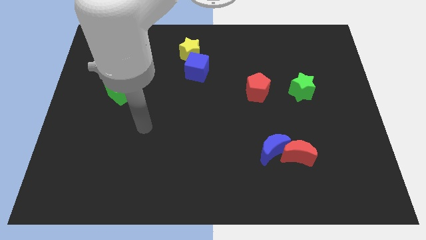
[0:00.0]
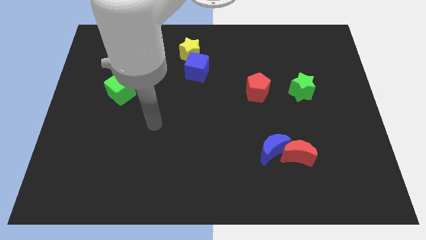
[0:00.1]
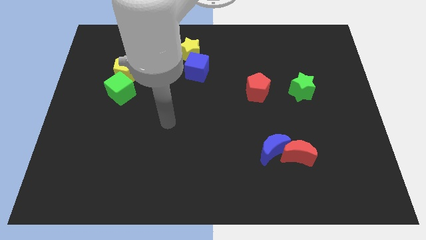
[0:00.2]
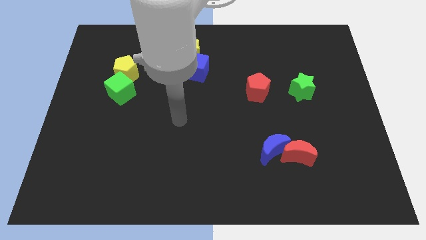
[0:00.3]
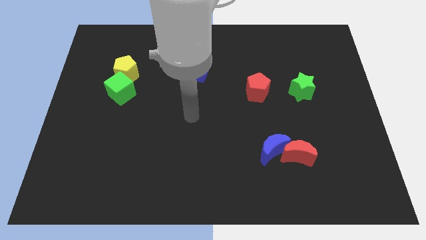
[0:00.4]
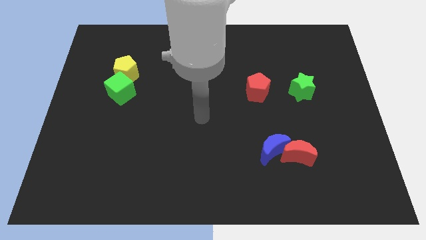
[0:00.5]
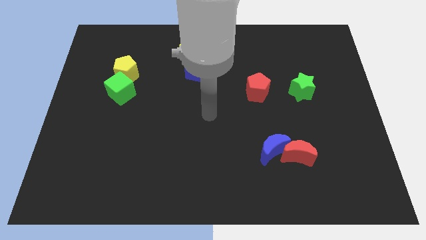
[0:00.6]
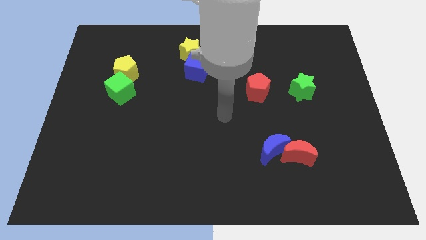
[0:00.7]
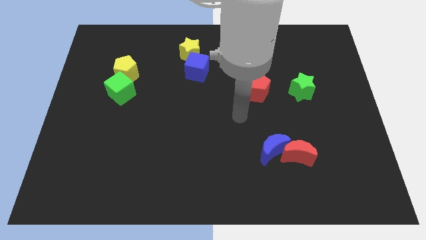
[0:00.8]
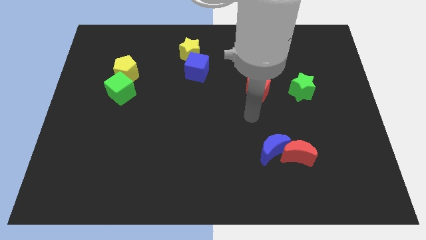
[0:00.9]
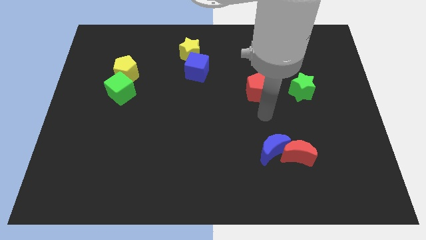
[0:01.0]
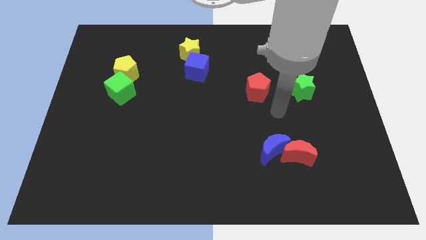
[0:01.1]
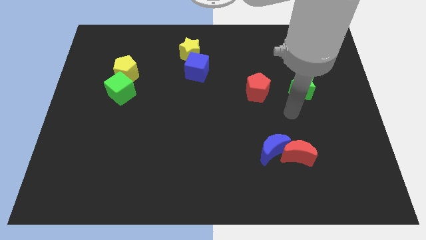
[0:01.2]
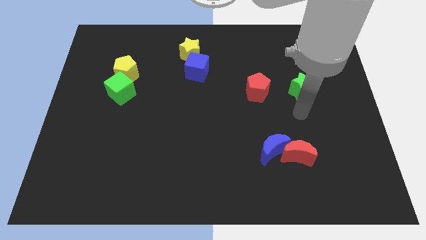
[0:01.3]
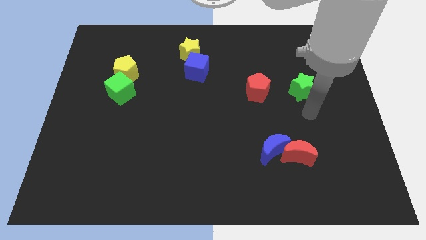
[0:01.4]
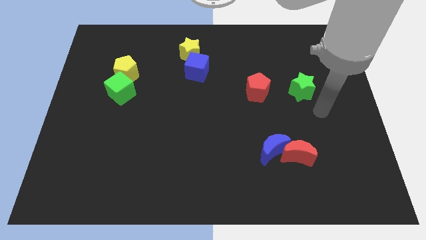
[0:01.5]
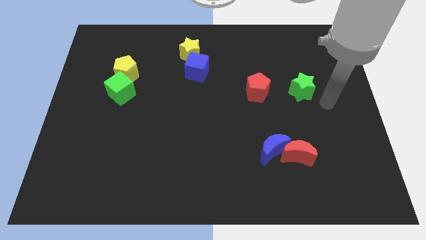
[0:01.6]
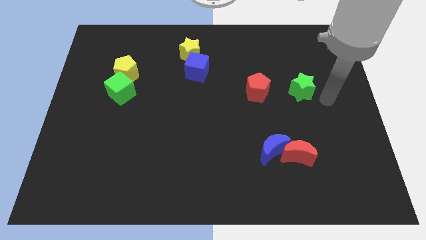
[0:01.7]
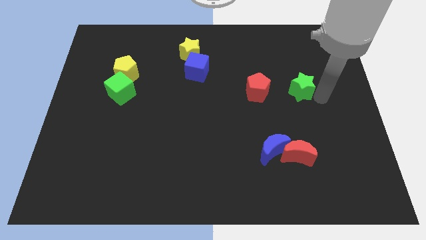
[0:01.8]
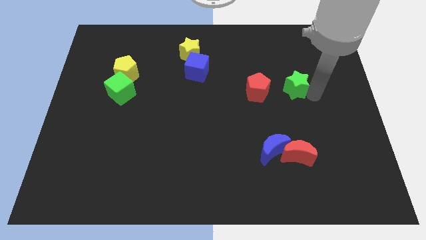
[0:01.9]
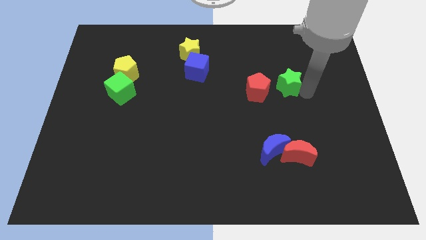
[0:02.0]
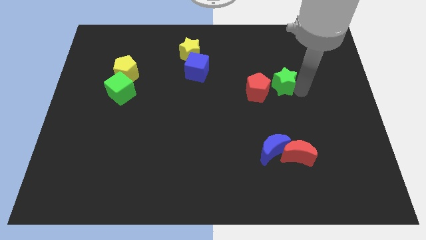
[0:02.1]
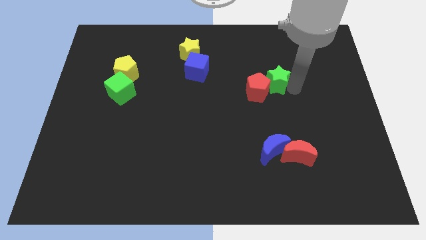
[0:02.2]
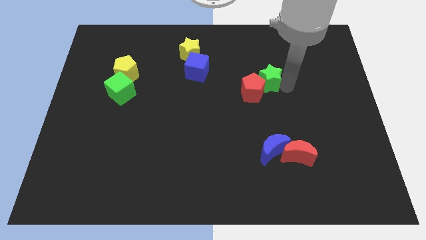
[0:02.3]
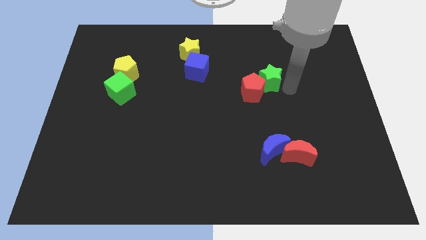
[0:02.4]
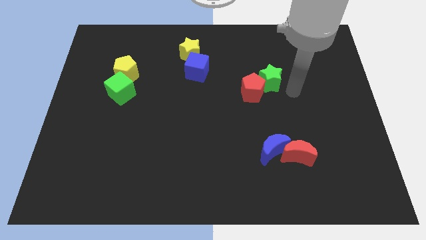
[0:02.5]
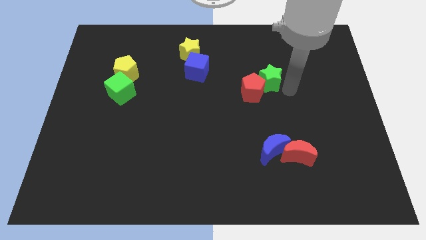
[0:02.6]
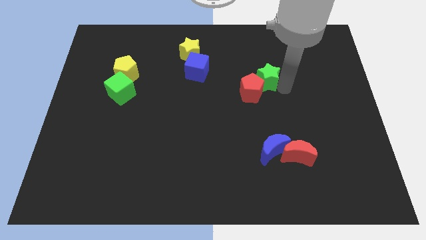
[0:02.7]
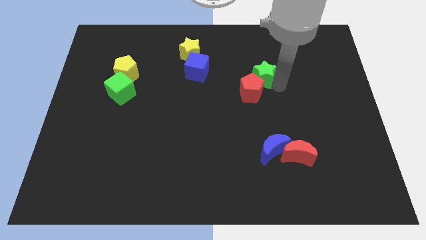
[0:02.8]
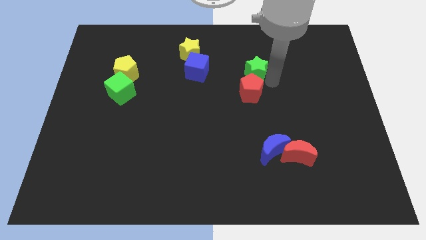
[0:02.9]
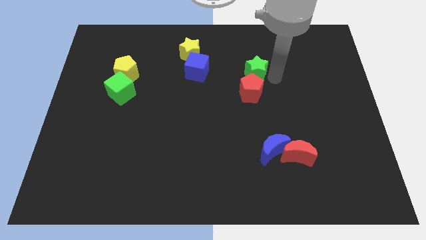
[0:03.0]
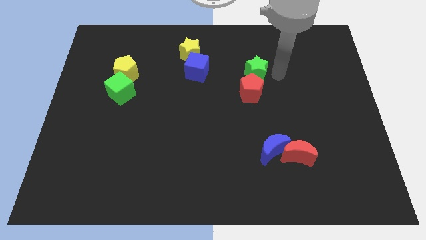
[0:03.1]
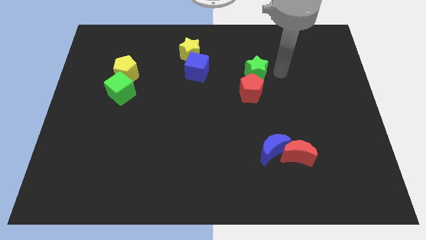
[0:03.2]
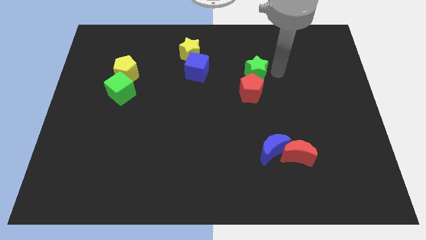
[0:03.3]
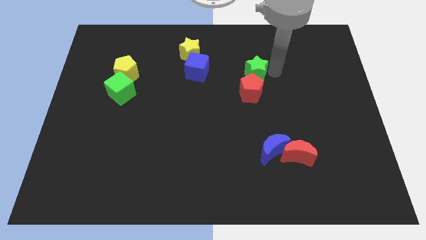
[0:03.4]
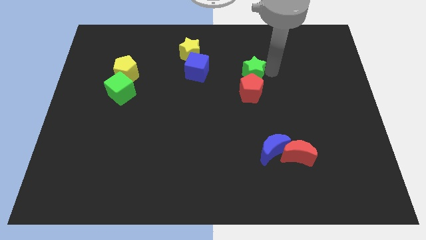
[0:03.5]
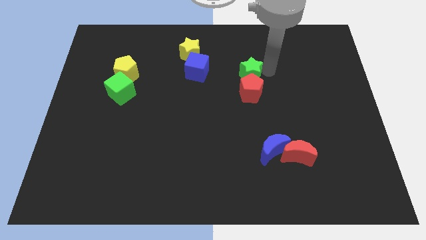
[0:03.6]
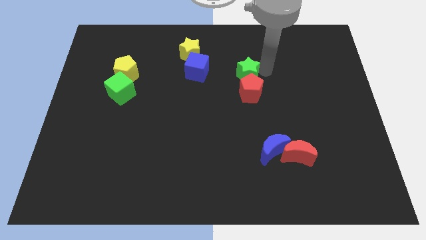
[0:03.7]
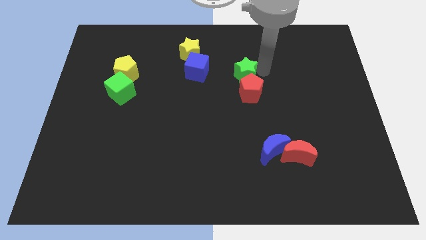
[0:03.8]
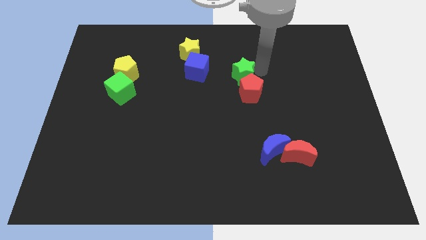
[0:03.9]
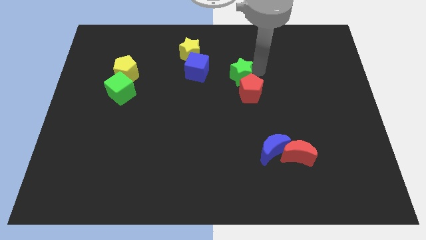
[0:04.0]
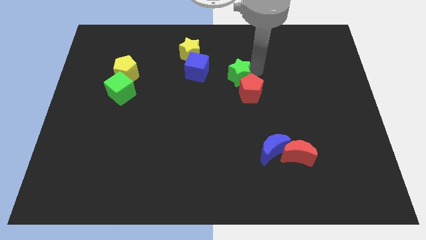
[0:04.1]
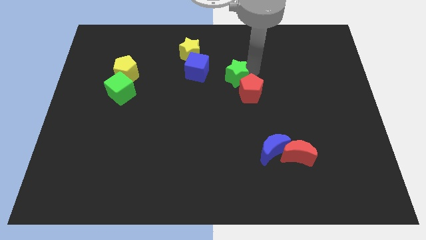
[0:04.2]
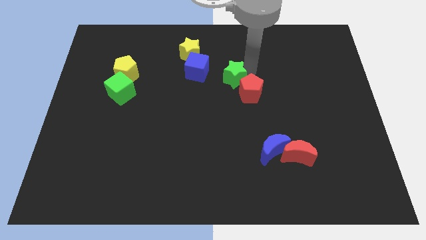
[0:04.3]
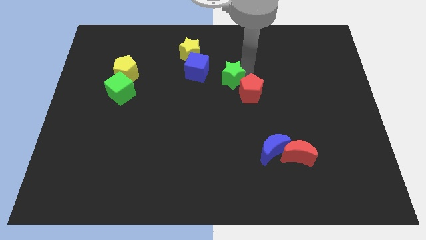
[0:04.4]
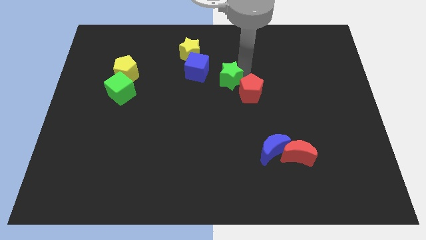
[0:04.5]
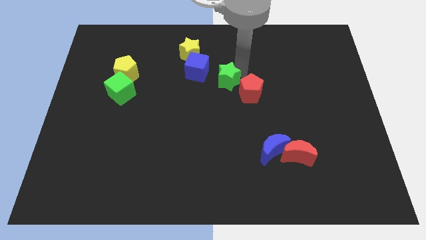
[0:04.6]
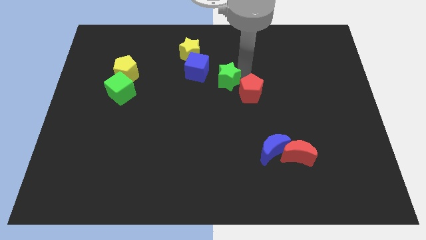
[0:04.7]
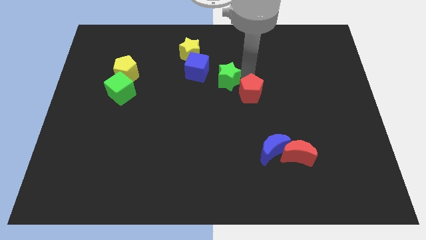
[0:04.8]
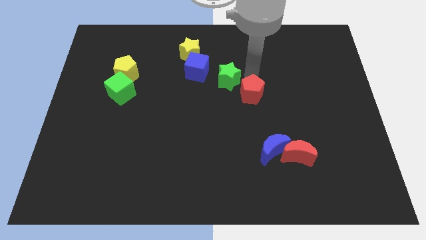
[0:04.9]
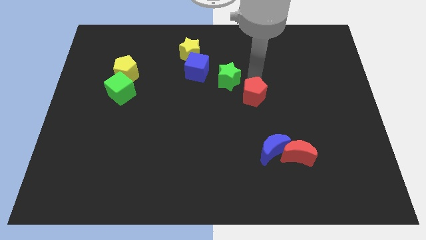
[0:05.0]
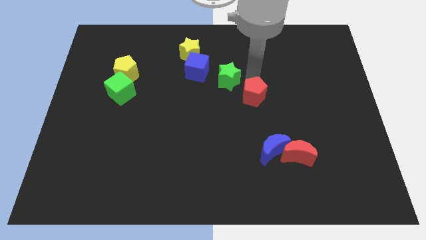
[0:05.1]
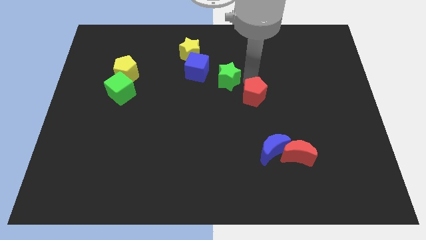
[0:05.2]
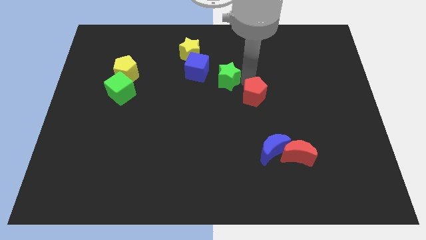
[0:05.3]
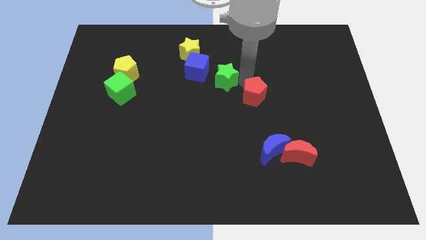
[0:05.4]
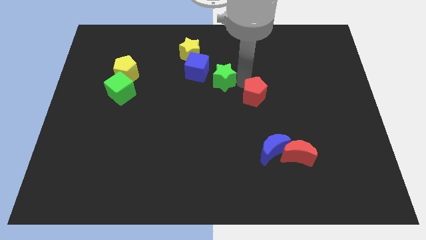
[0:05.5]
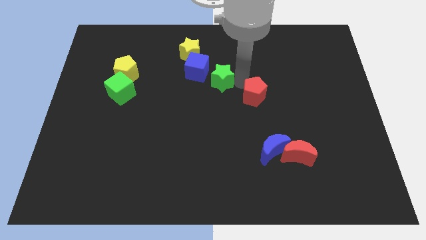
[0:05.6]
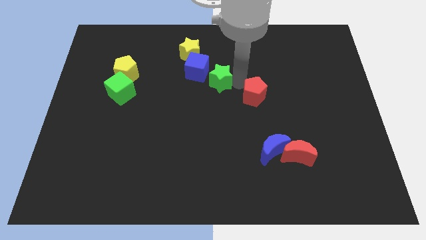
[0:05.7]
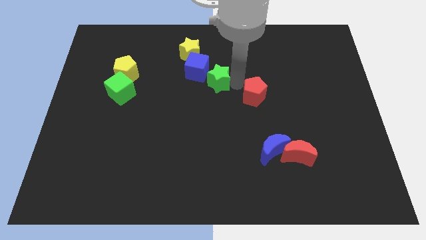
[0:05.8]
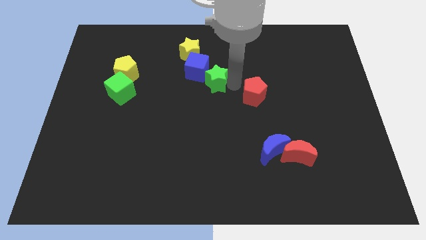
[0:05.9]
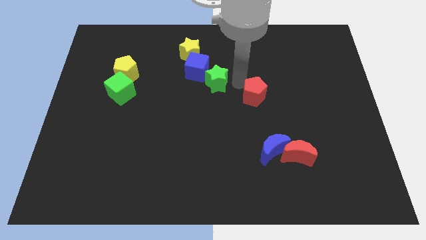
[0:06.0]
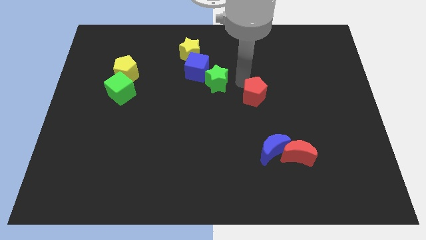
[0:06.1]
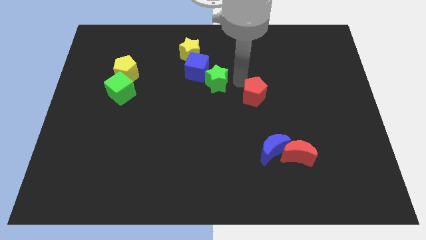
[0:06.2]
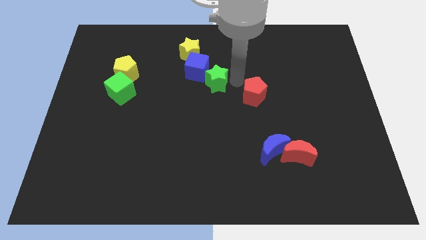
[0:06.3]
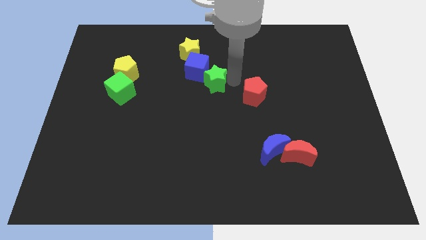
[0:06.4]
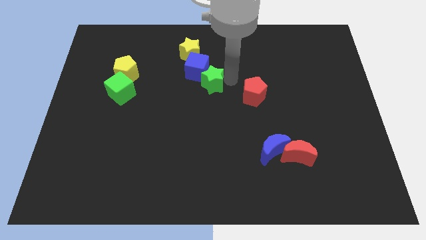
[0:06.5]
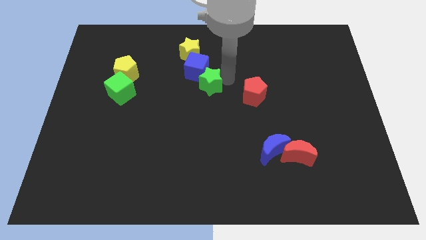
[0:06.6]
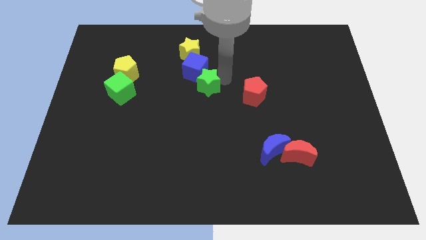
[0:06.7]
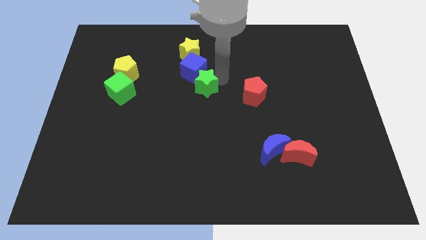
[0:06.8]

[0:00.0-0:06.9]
put the green star to the bottom side of the yellow star

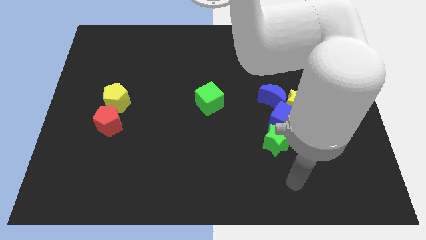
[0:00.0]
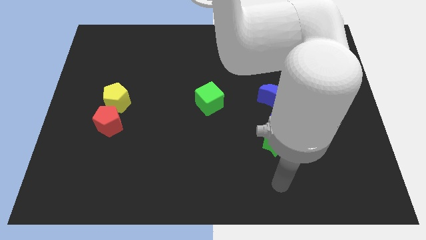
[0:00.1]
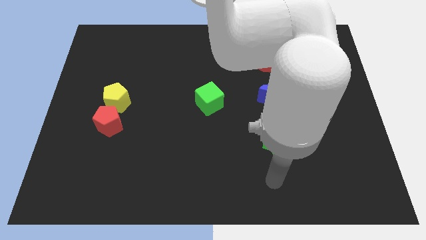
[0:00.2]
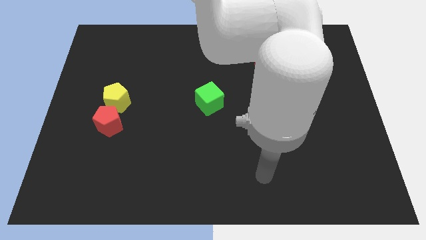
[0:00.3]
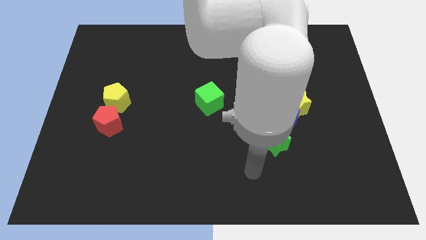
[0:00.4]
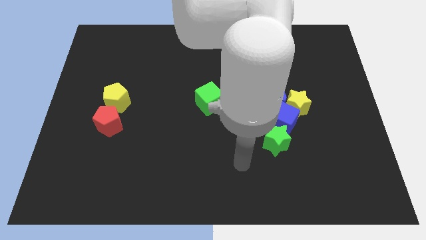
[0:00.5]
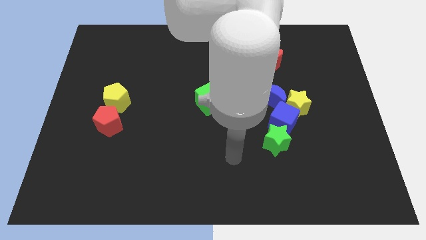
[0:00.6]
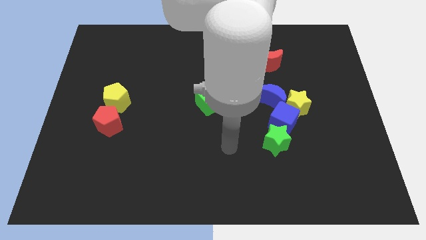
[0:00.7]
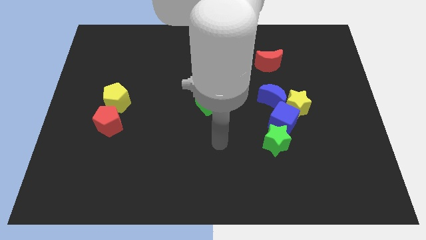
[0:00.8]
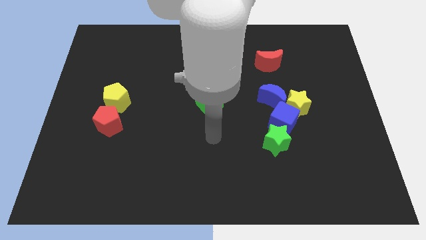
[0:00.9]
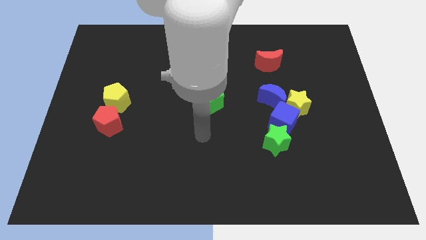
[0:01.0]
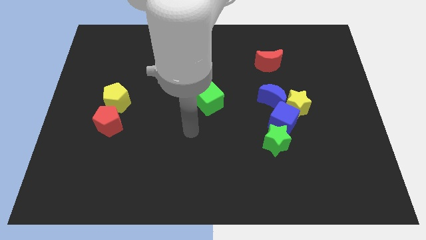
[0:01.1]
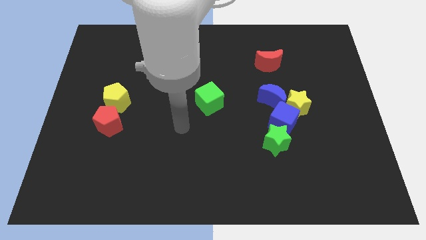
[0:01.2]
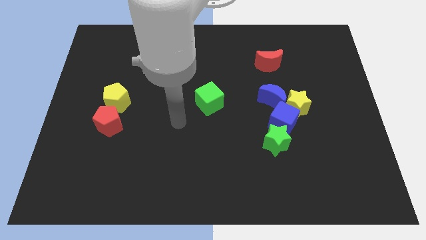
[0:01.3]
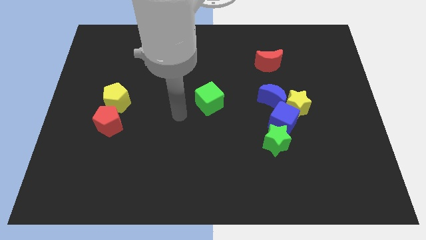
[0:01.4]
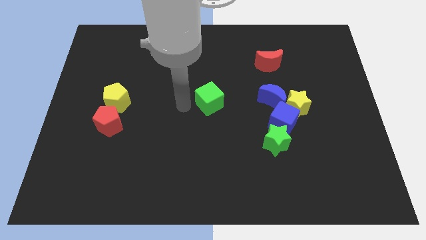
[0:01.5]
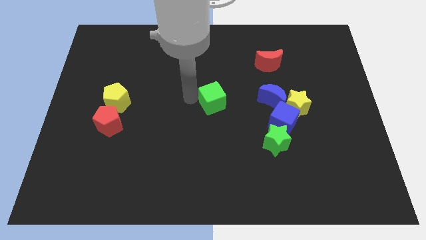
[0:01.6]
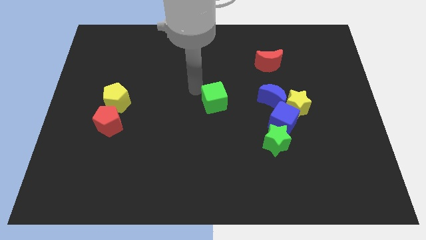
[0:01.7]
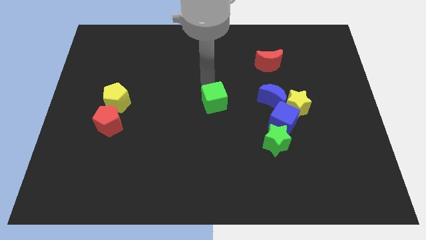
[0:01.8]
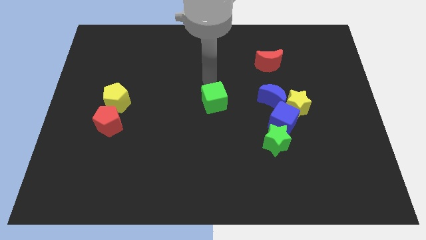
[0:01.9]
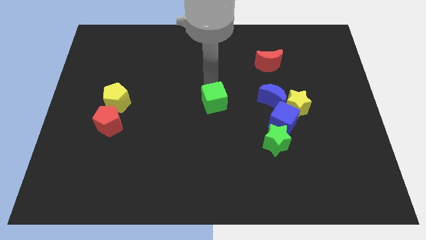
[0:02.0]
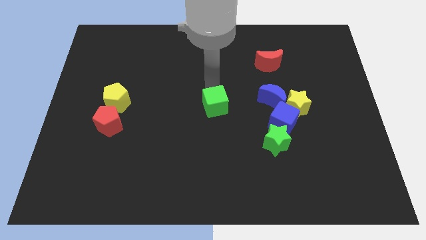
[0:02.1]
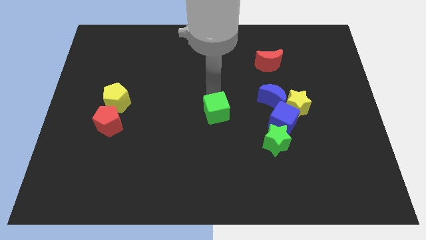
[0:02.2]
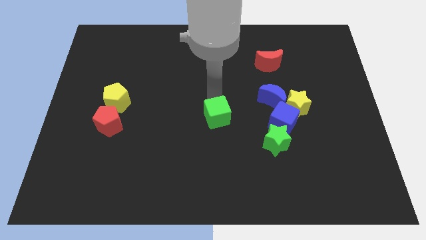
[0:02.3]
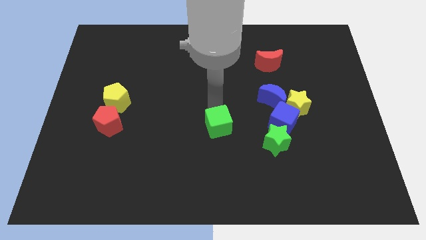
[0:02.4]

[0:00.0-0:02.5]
put the green cube left of the green star
